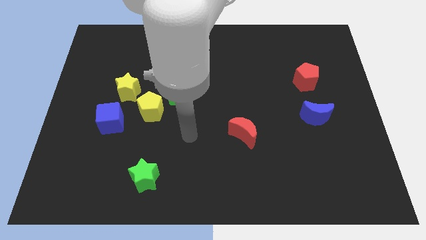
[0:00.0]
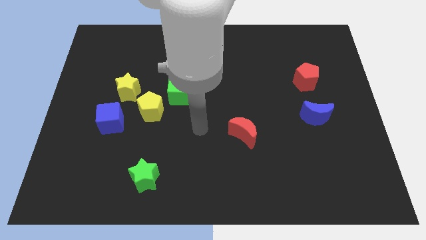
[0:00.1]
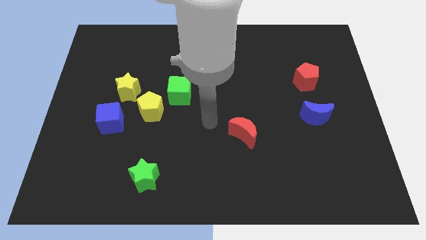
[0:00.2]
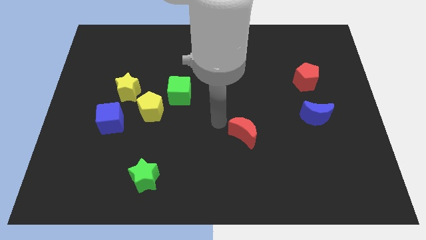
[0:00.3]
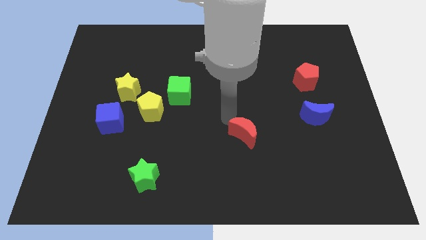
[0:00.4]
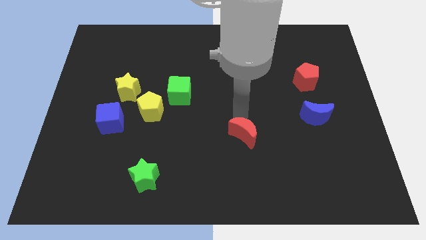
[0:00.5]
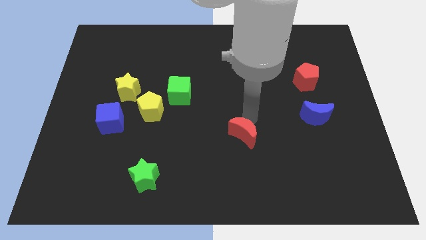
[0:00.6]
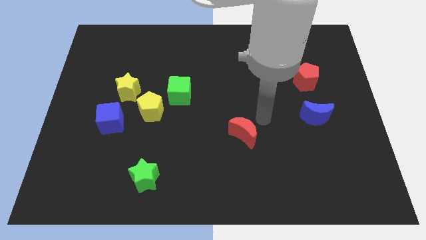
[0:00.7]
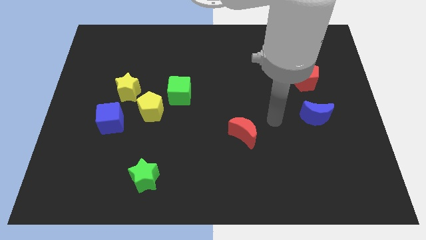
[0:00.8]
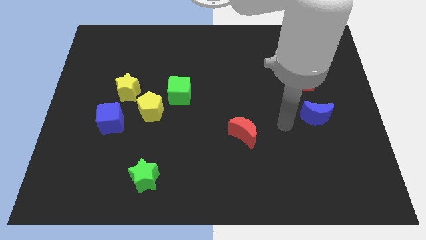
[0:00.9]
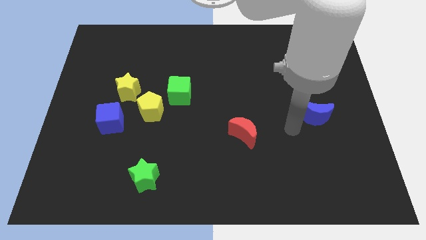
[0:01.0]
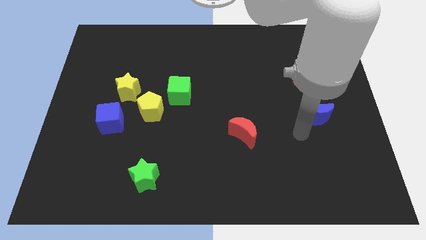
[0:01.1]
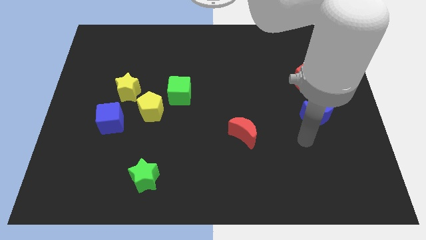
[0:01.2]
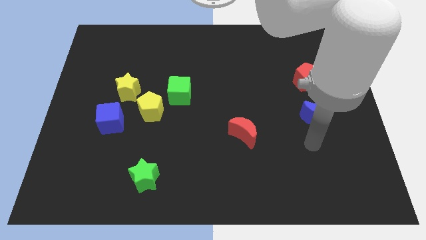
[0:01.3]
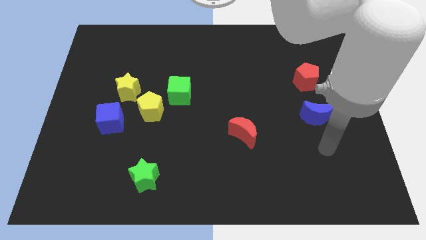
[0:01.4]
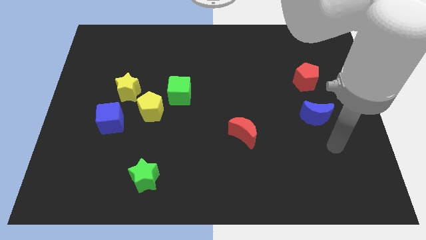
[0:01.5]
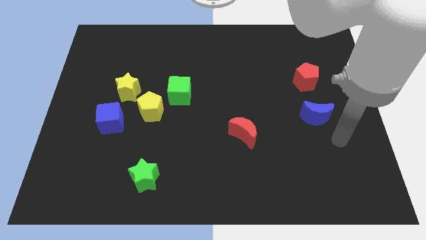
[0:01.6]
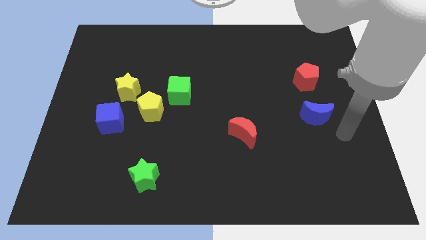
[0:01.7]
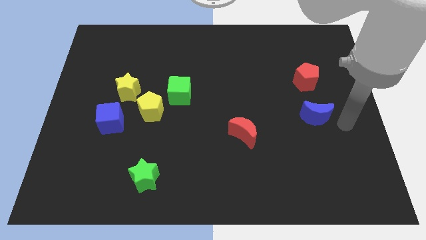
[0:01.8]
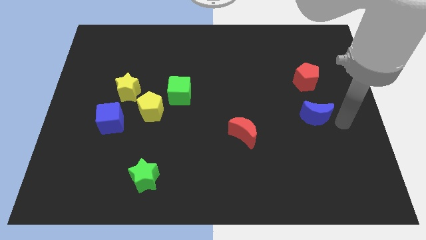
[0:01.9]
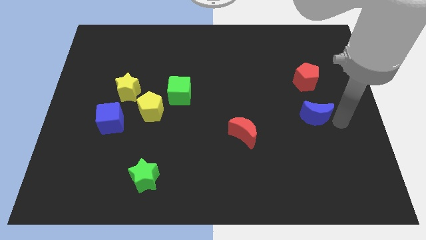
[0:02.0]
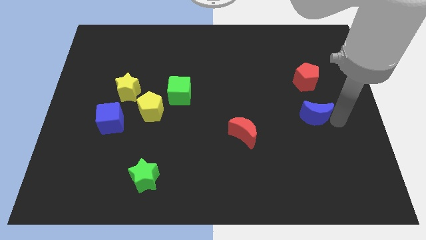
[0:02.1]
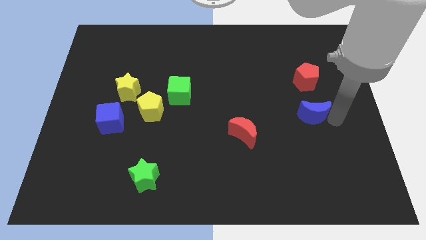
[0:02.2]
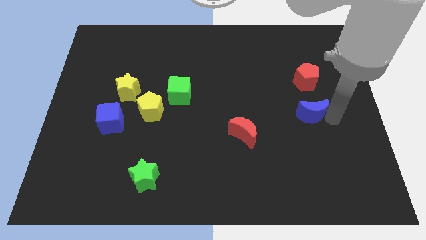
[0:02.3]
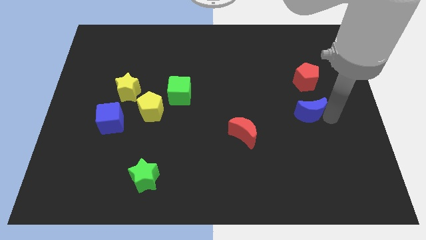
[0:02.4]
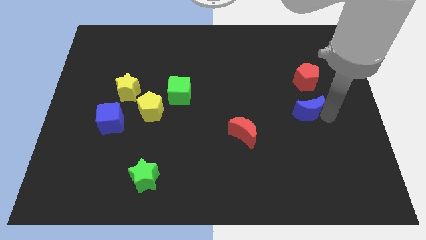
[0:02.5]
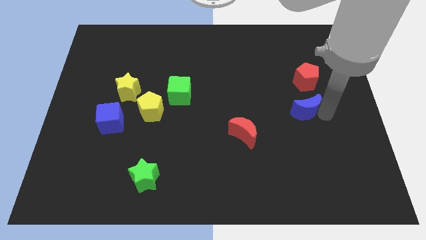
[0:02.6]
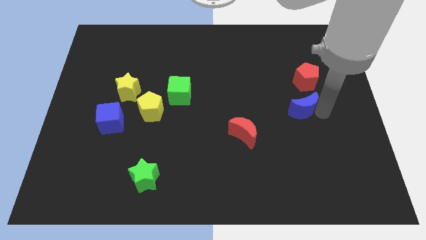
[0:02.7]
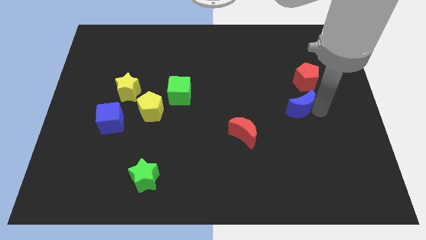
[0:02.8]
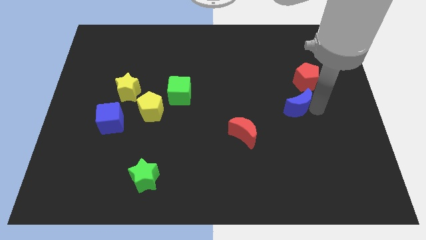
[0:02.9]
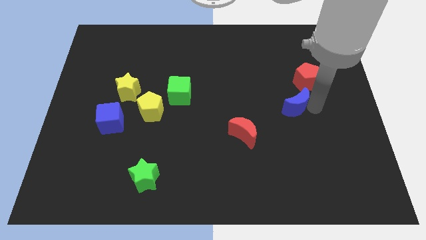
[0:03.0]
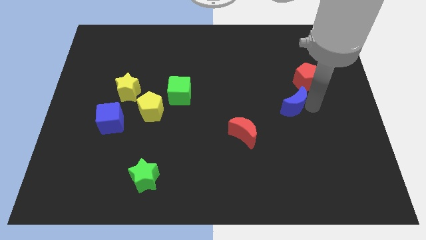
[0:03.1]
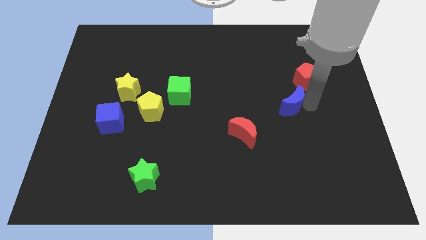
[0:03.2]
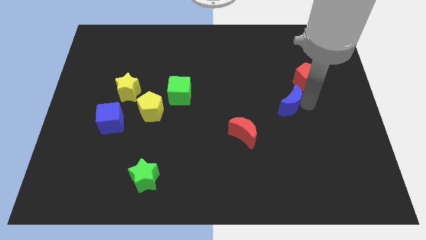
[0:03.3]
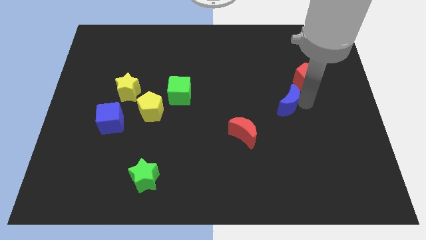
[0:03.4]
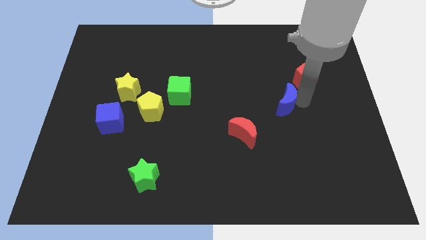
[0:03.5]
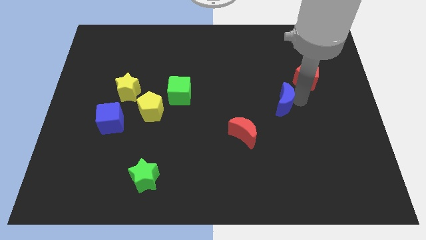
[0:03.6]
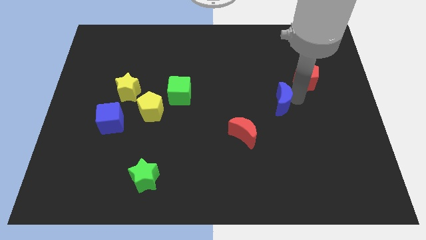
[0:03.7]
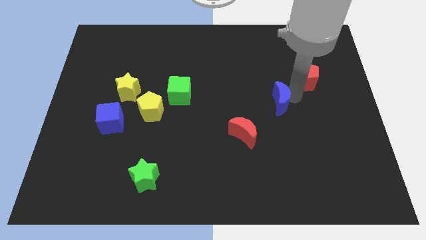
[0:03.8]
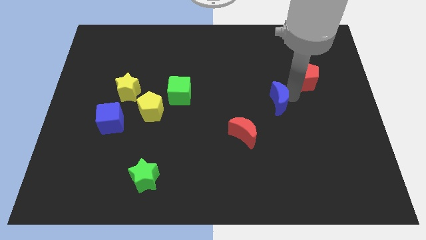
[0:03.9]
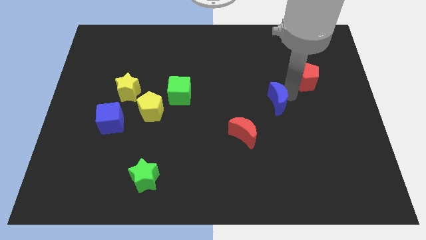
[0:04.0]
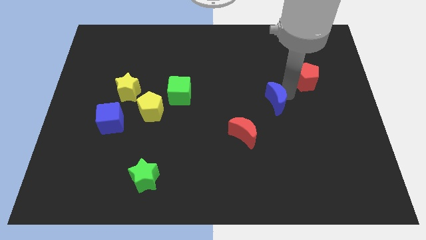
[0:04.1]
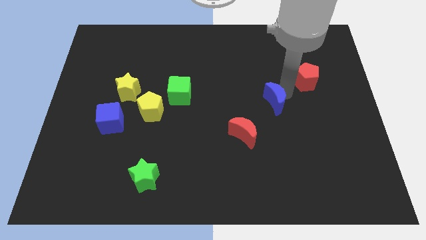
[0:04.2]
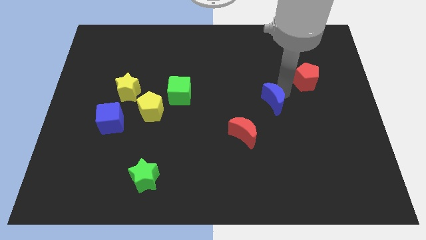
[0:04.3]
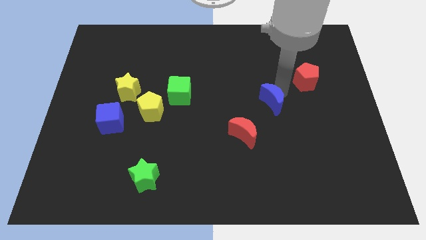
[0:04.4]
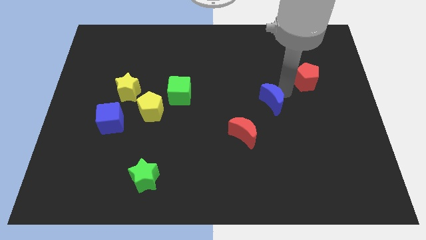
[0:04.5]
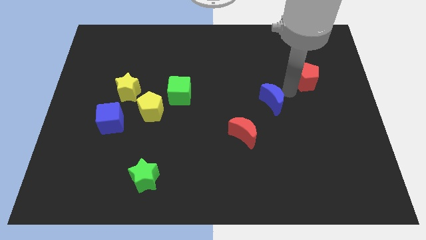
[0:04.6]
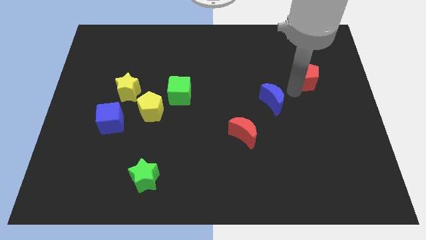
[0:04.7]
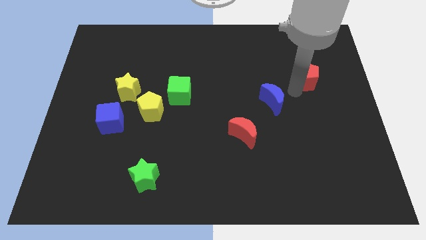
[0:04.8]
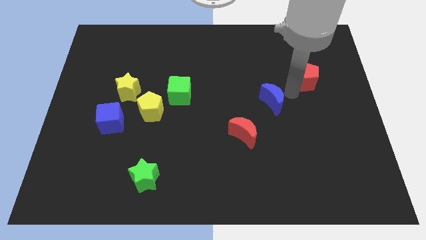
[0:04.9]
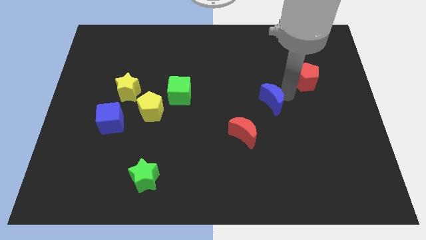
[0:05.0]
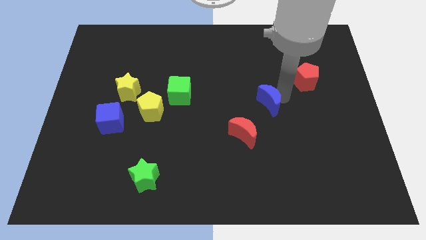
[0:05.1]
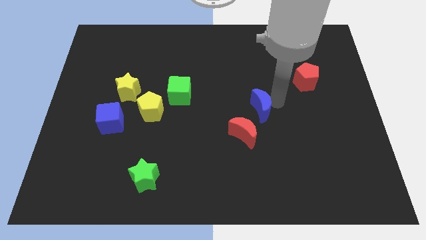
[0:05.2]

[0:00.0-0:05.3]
slide the blue moon to the middle of the board

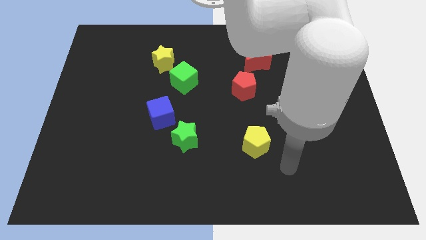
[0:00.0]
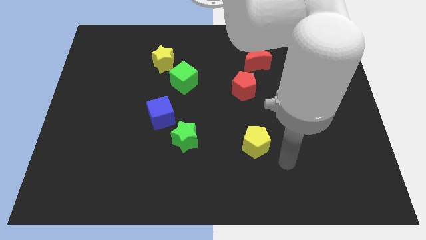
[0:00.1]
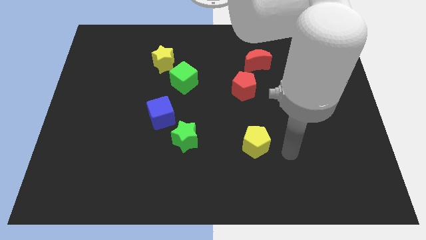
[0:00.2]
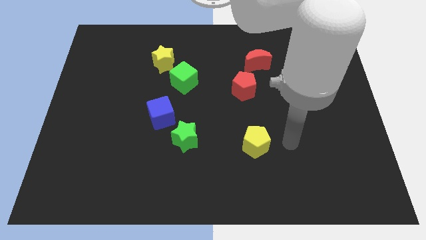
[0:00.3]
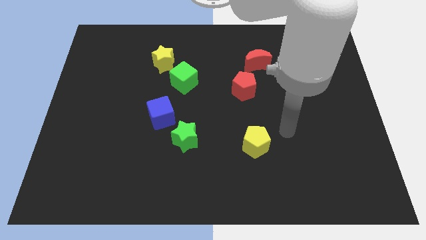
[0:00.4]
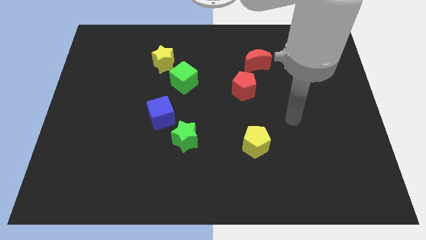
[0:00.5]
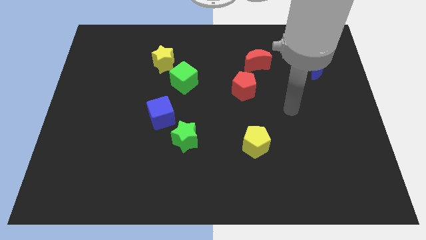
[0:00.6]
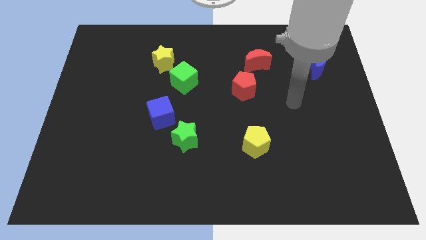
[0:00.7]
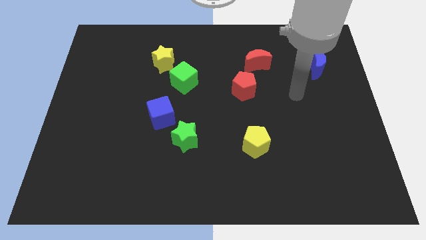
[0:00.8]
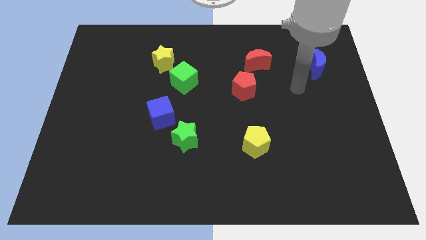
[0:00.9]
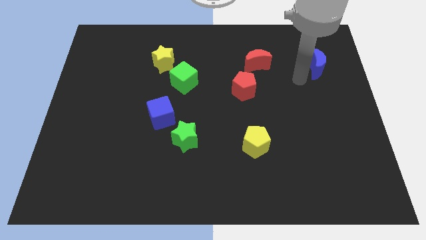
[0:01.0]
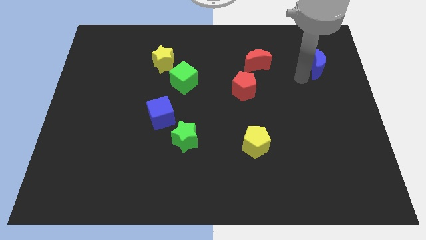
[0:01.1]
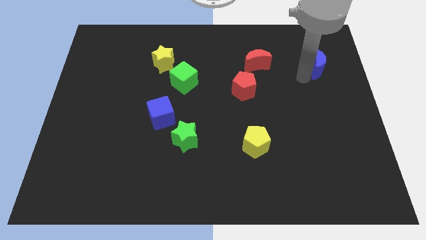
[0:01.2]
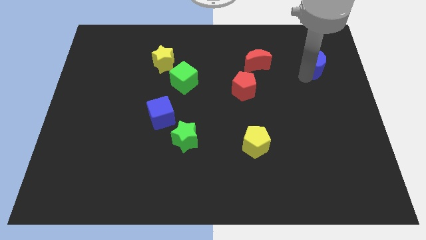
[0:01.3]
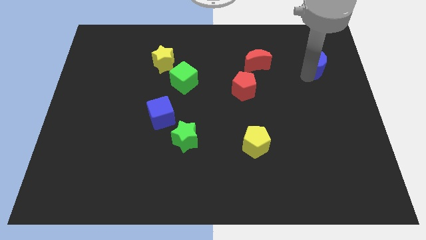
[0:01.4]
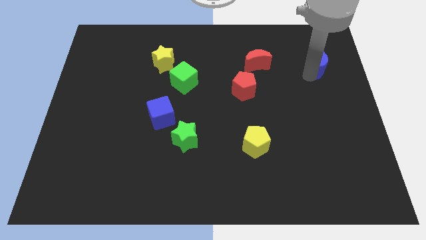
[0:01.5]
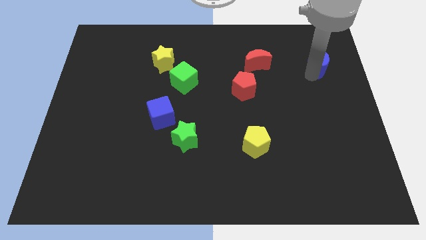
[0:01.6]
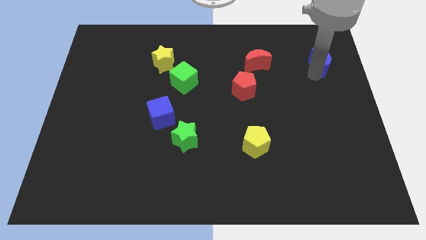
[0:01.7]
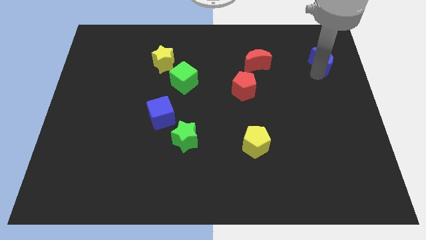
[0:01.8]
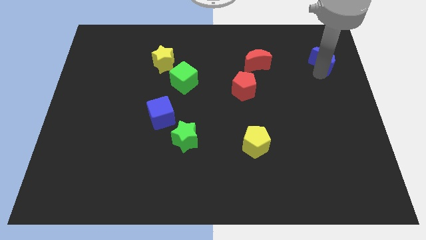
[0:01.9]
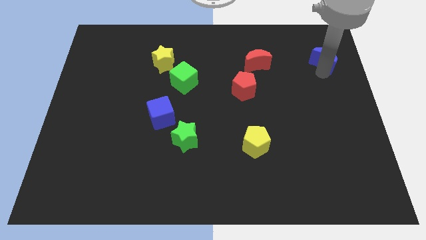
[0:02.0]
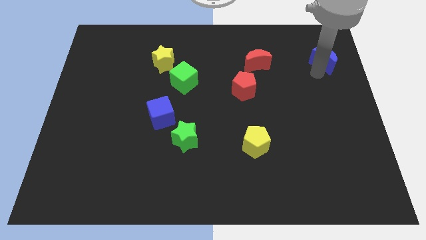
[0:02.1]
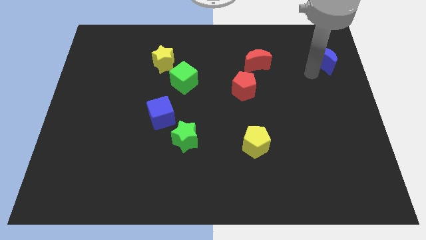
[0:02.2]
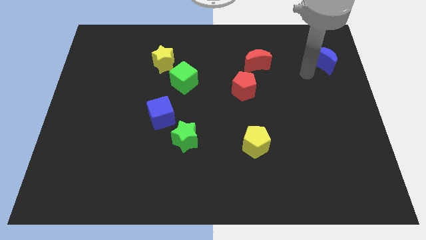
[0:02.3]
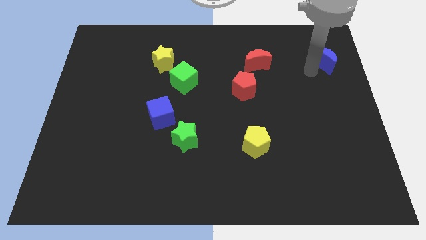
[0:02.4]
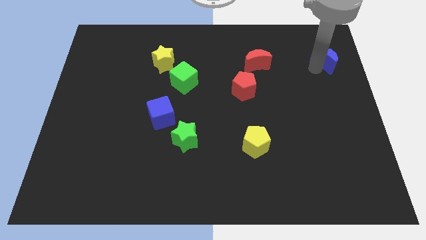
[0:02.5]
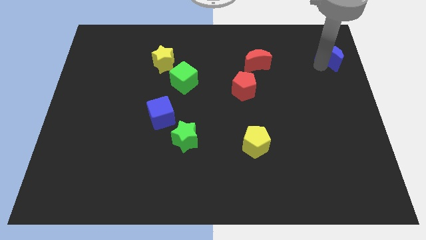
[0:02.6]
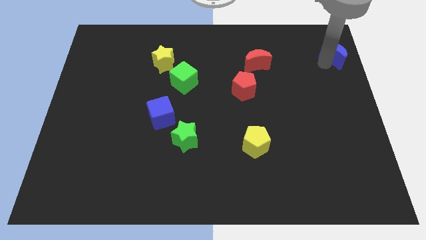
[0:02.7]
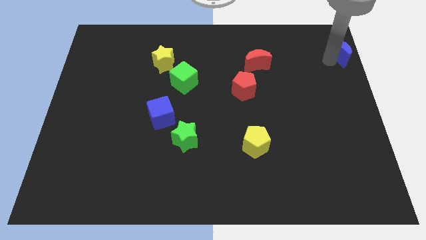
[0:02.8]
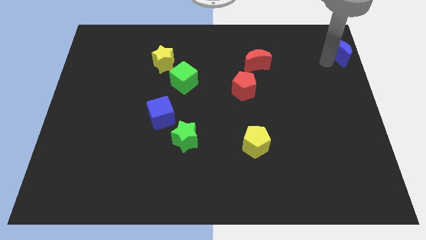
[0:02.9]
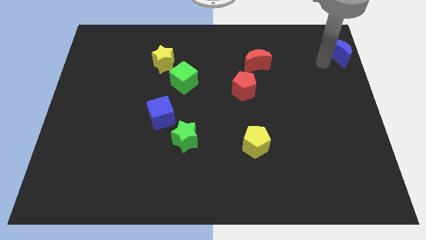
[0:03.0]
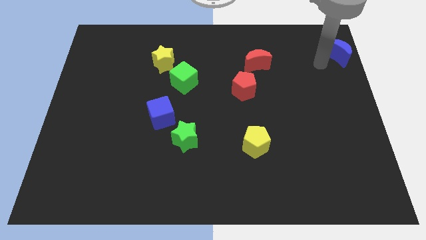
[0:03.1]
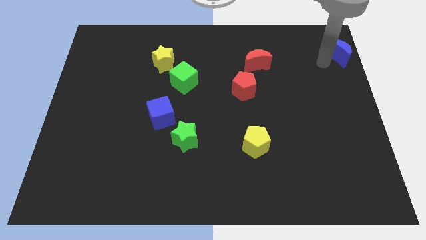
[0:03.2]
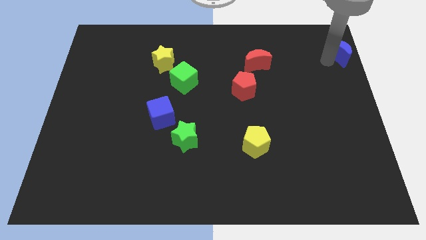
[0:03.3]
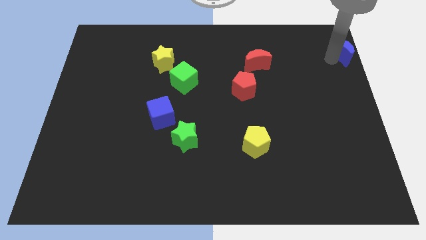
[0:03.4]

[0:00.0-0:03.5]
move the blue moon to the top right of the board
